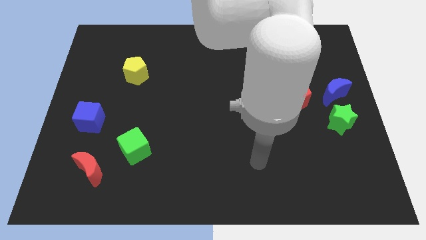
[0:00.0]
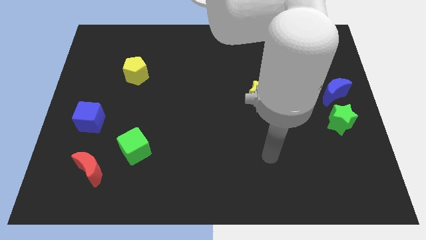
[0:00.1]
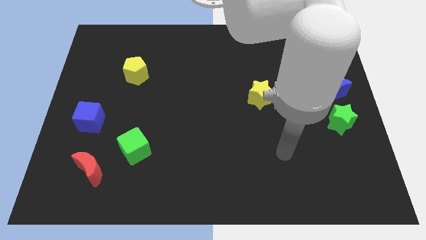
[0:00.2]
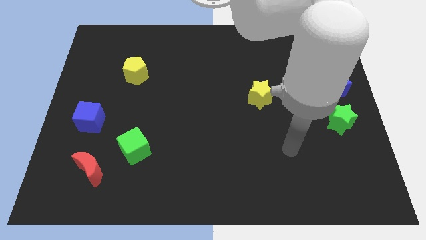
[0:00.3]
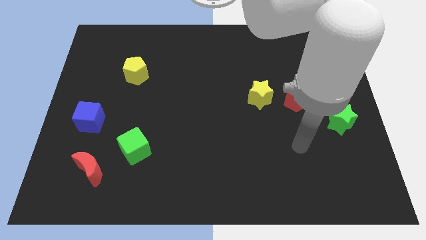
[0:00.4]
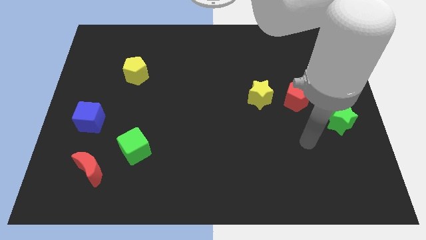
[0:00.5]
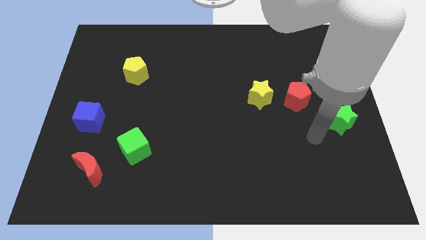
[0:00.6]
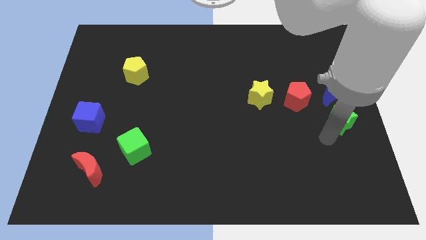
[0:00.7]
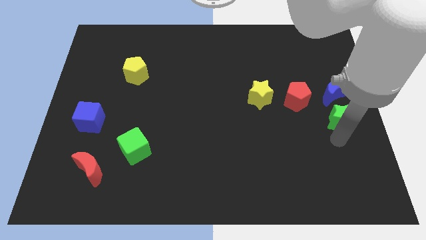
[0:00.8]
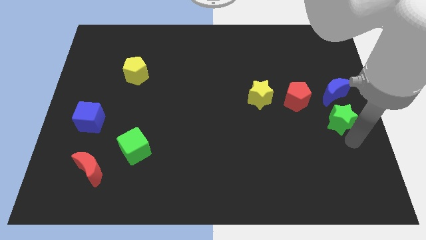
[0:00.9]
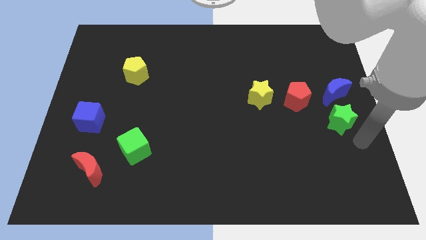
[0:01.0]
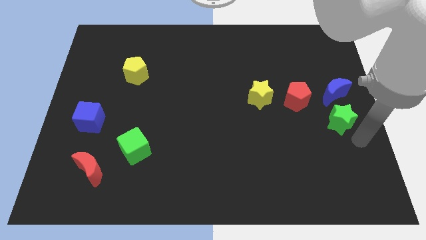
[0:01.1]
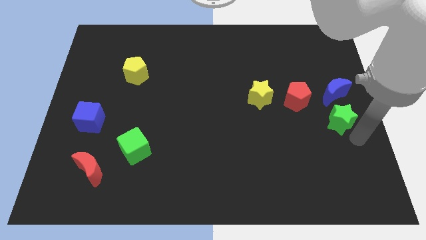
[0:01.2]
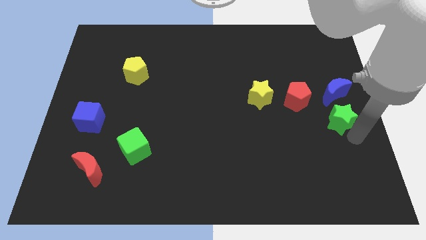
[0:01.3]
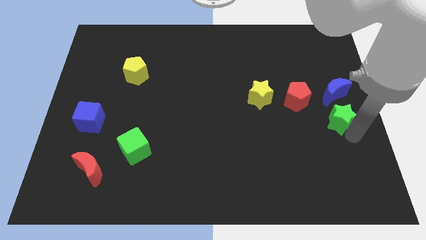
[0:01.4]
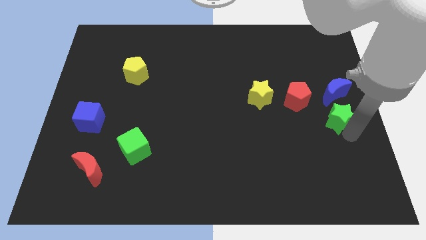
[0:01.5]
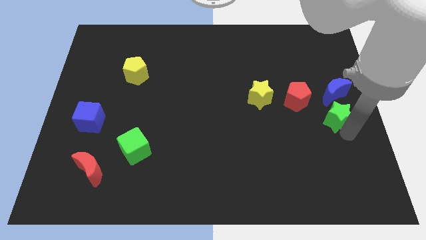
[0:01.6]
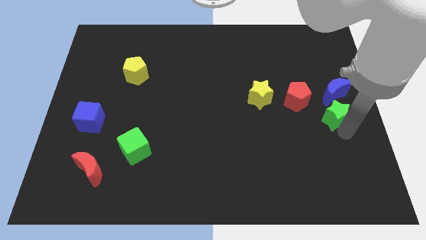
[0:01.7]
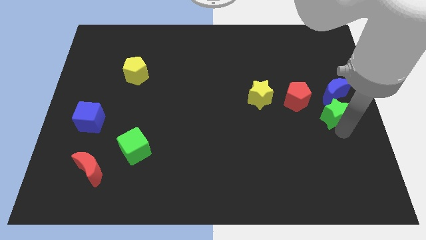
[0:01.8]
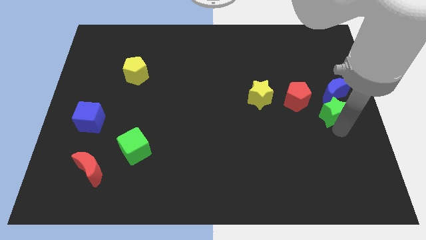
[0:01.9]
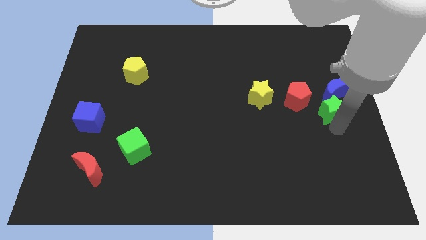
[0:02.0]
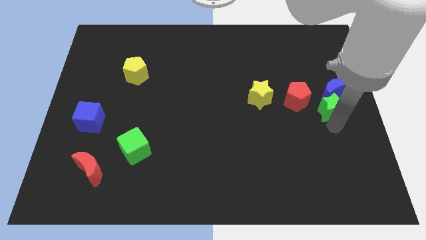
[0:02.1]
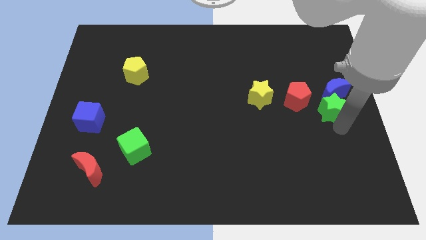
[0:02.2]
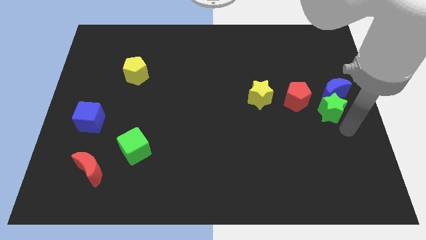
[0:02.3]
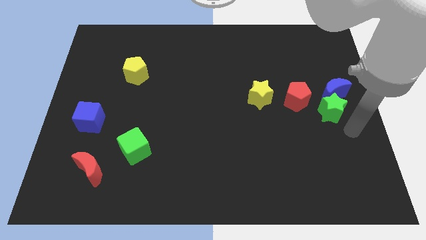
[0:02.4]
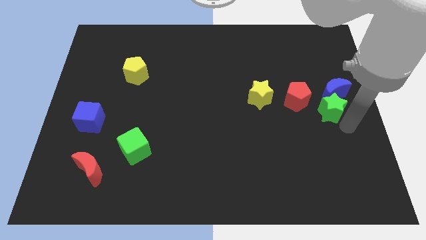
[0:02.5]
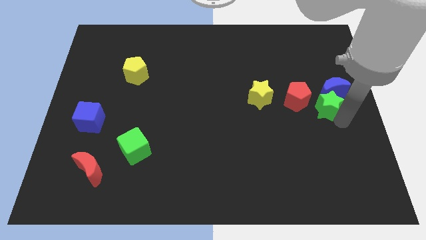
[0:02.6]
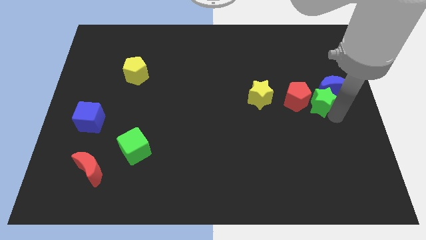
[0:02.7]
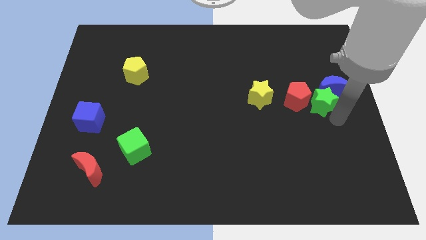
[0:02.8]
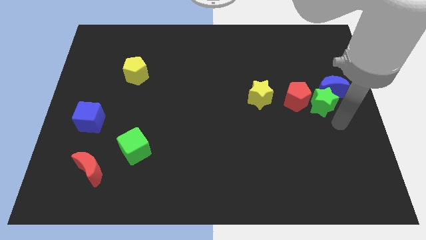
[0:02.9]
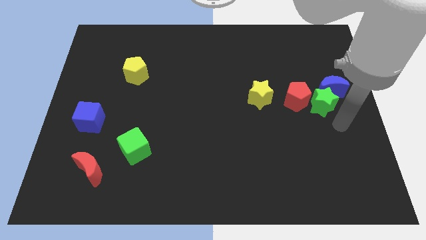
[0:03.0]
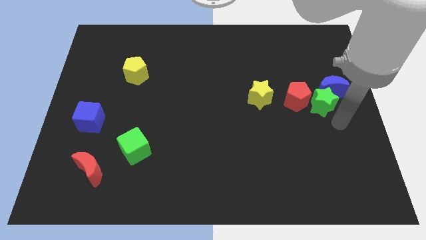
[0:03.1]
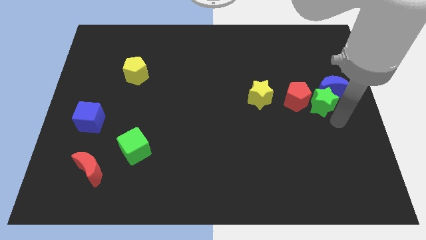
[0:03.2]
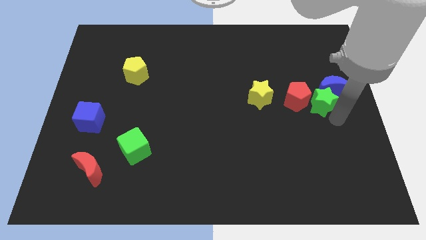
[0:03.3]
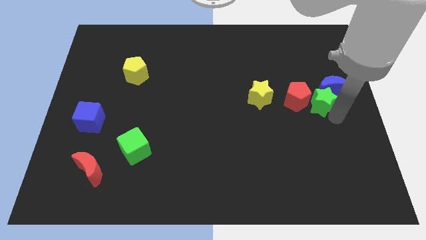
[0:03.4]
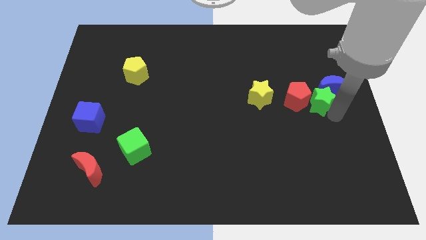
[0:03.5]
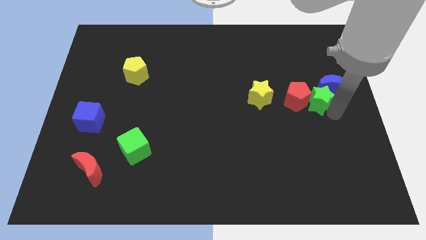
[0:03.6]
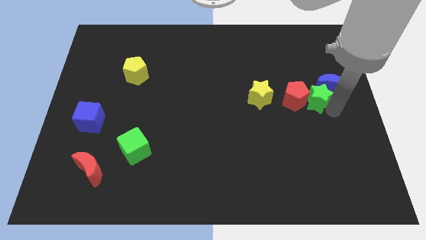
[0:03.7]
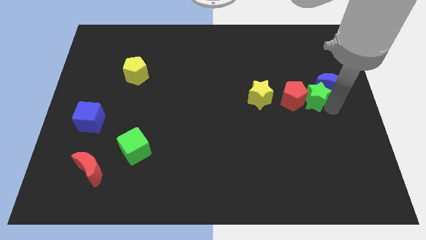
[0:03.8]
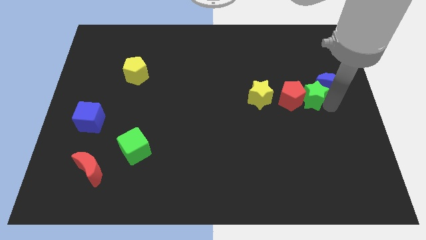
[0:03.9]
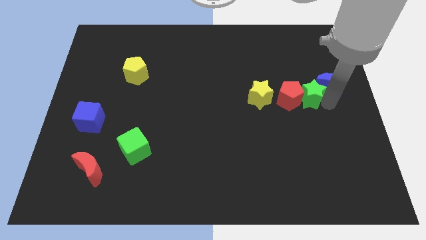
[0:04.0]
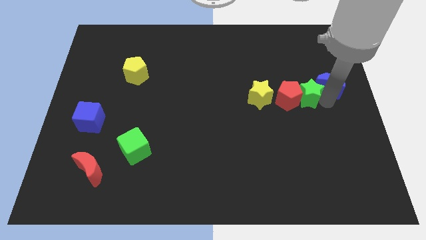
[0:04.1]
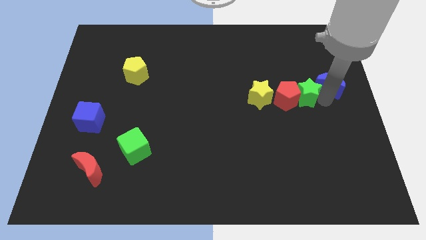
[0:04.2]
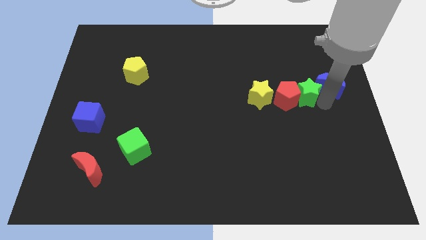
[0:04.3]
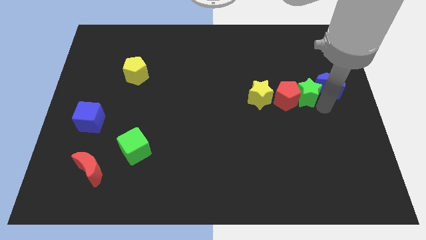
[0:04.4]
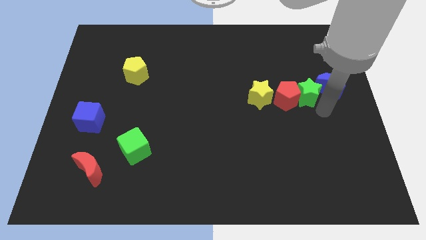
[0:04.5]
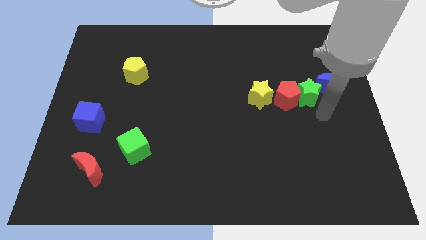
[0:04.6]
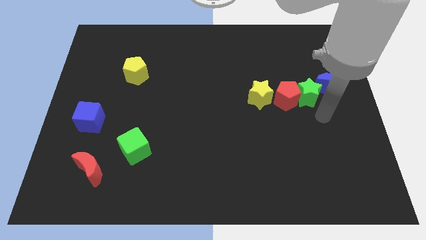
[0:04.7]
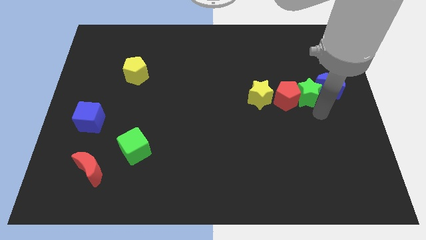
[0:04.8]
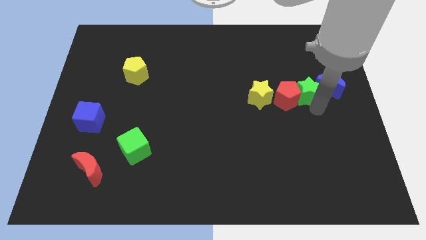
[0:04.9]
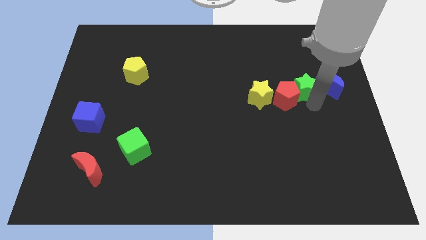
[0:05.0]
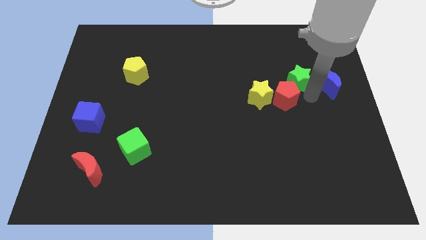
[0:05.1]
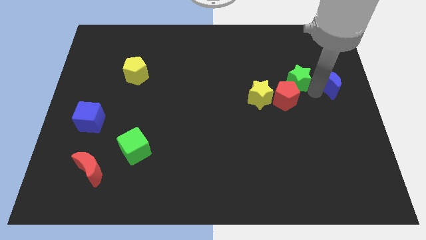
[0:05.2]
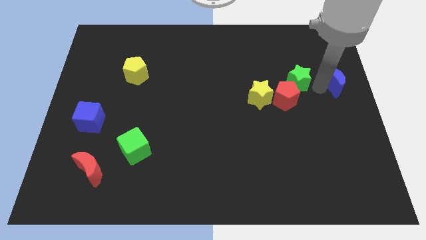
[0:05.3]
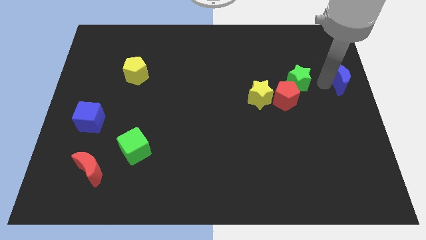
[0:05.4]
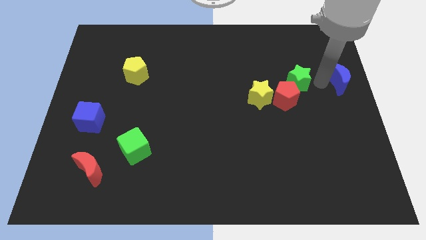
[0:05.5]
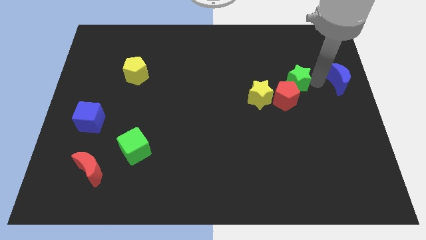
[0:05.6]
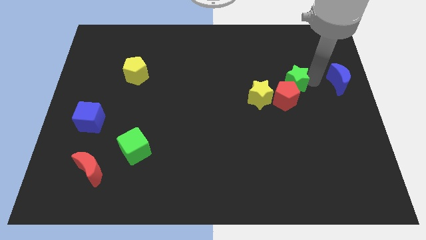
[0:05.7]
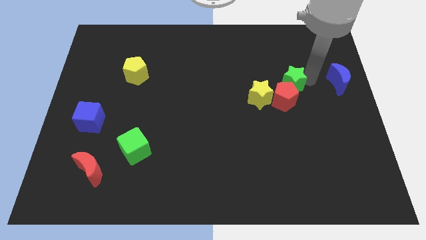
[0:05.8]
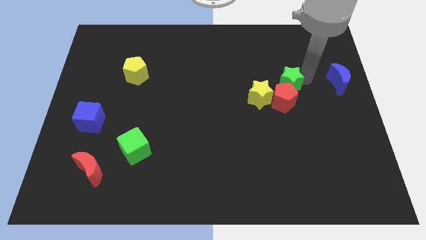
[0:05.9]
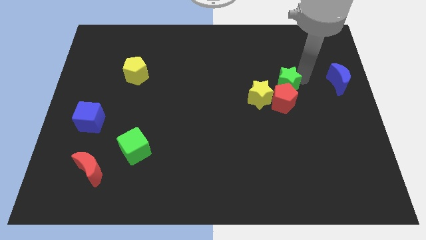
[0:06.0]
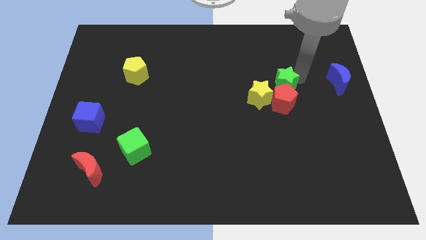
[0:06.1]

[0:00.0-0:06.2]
push the green star to the top left side of the red pentagon

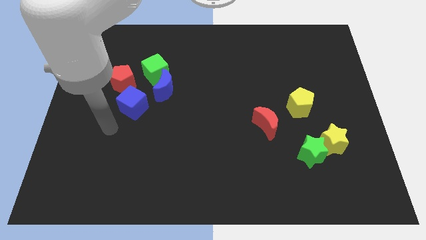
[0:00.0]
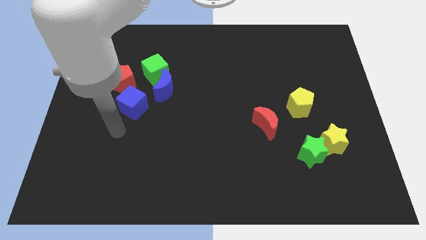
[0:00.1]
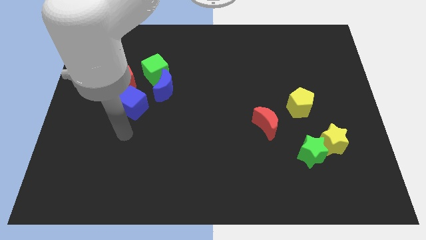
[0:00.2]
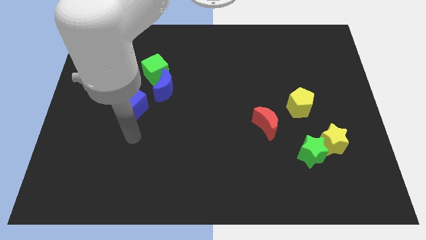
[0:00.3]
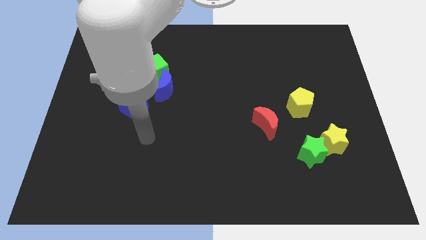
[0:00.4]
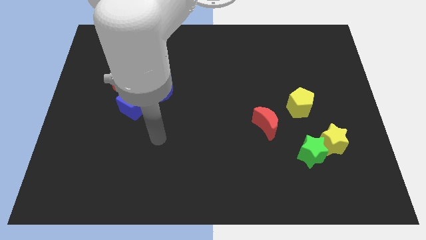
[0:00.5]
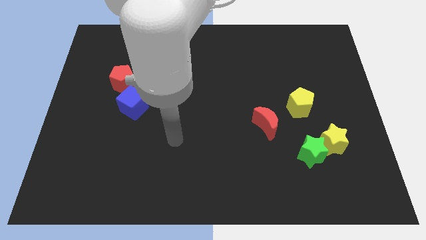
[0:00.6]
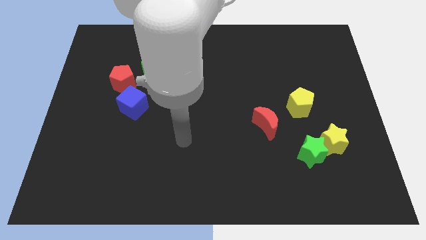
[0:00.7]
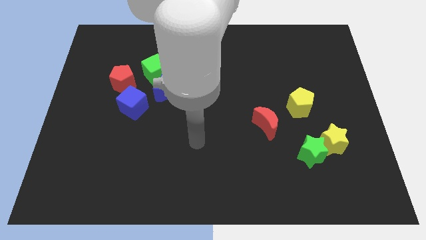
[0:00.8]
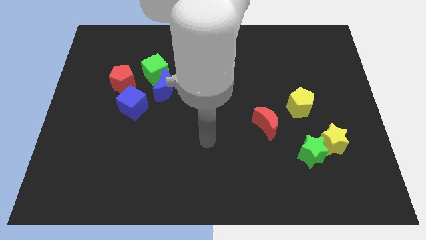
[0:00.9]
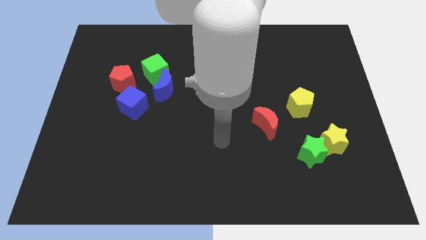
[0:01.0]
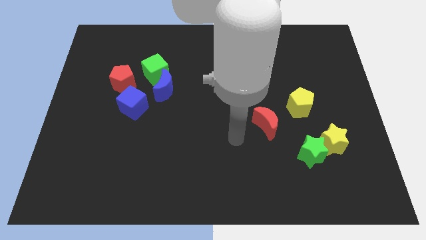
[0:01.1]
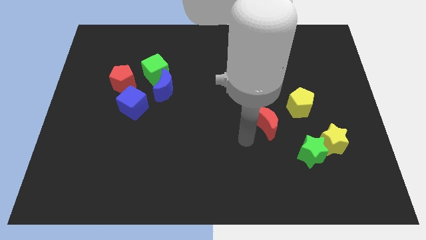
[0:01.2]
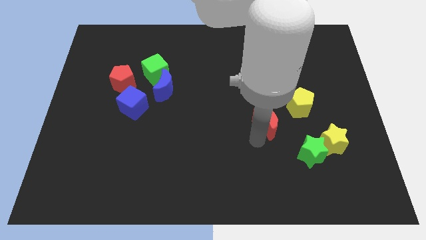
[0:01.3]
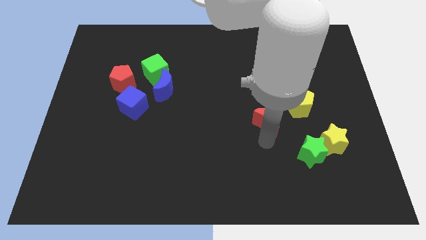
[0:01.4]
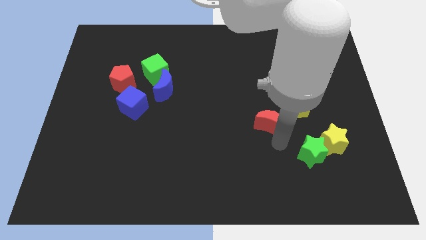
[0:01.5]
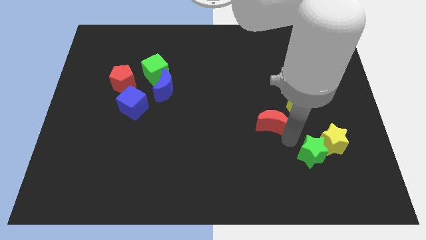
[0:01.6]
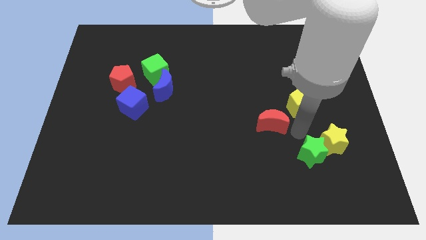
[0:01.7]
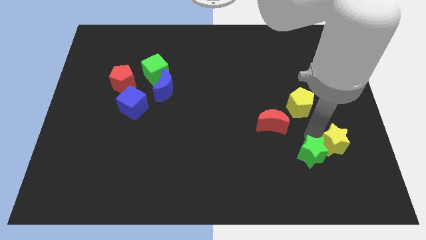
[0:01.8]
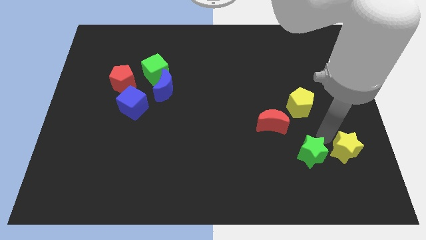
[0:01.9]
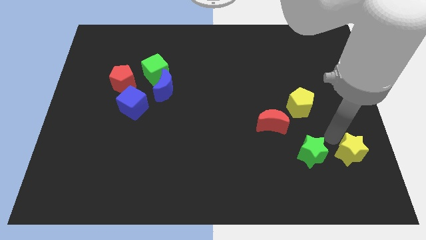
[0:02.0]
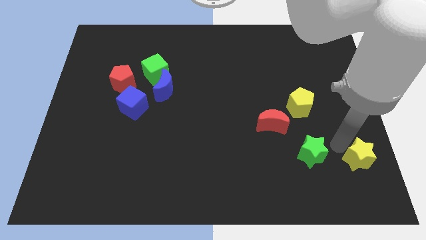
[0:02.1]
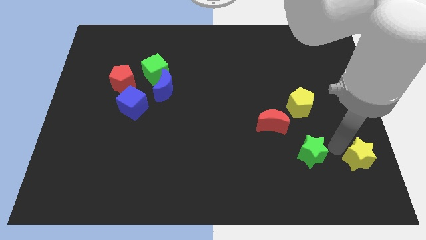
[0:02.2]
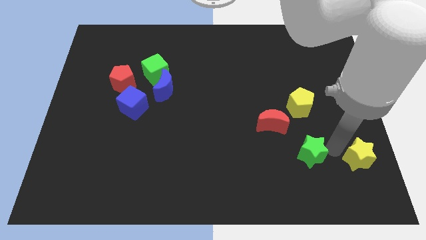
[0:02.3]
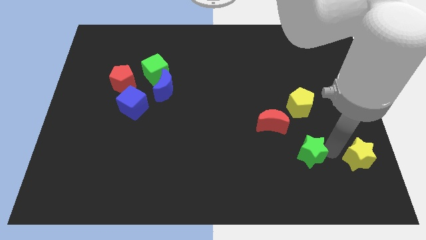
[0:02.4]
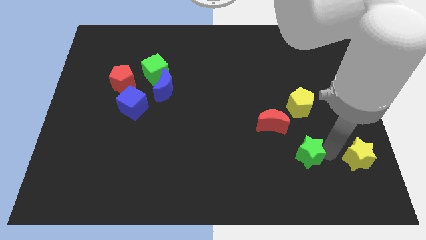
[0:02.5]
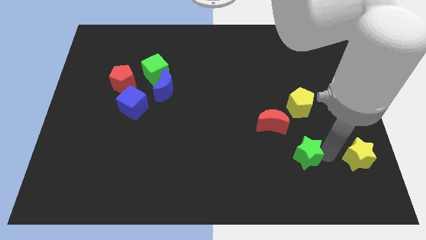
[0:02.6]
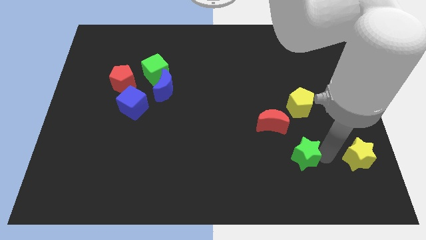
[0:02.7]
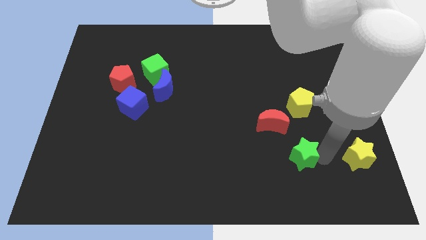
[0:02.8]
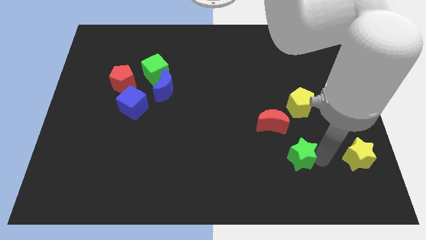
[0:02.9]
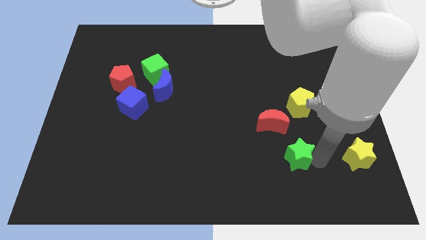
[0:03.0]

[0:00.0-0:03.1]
put the green star to the bottom side of the red moon
